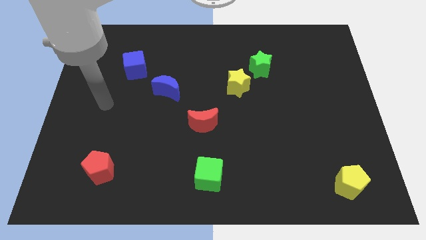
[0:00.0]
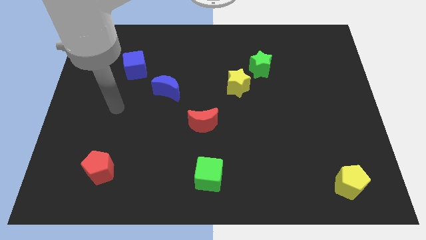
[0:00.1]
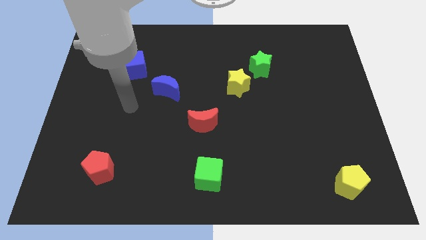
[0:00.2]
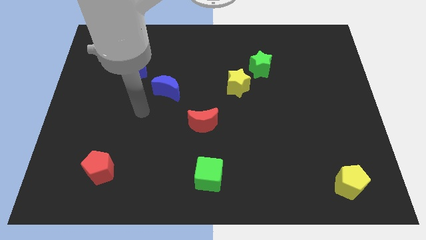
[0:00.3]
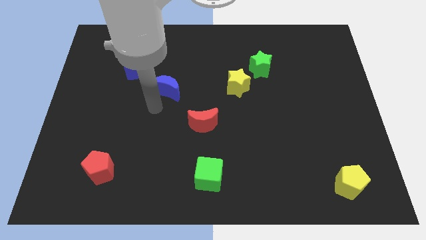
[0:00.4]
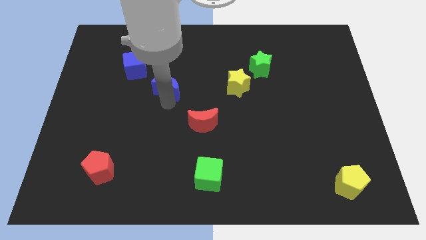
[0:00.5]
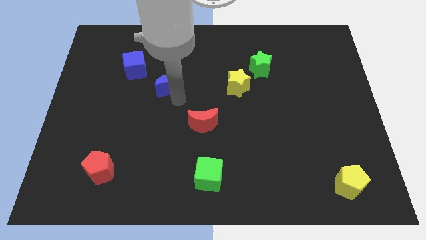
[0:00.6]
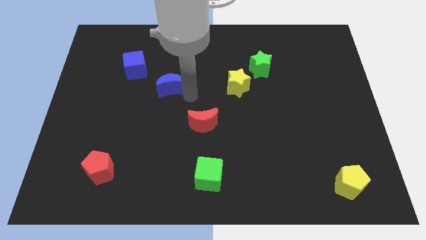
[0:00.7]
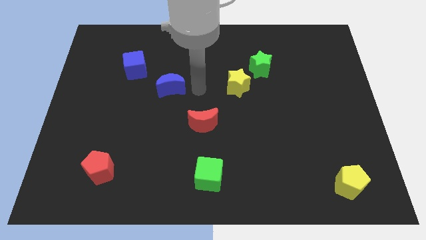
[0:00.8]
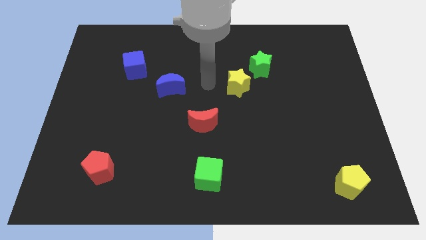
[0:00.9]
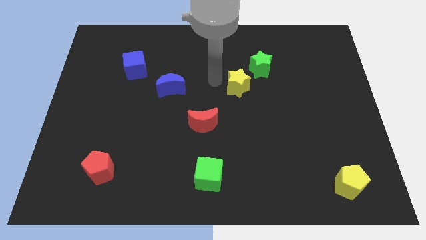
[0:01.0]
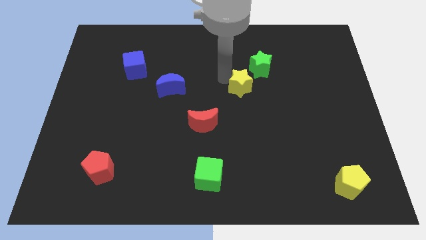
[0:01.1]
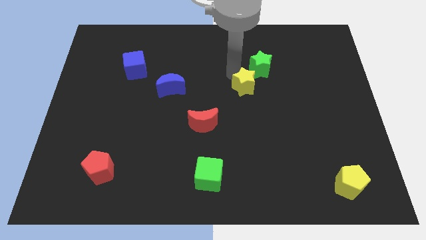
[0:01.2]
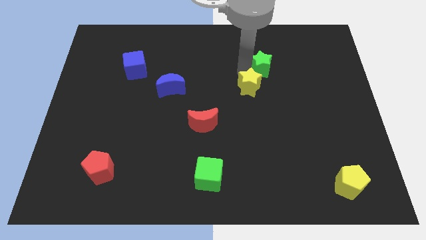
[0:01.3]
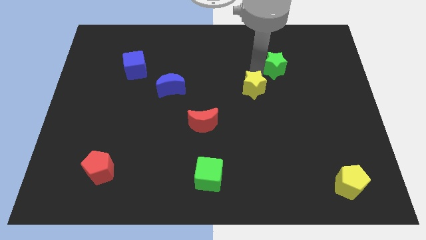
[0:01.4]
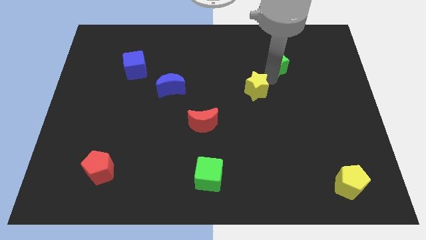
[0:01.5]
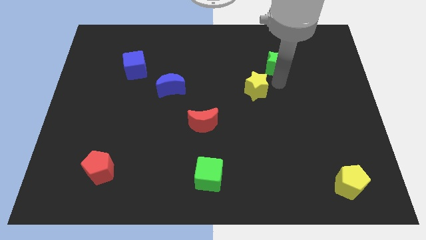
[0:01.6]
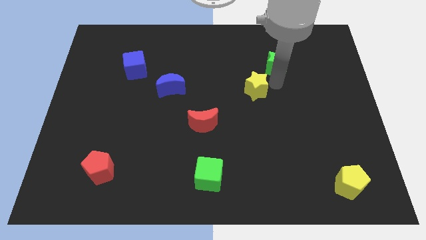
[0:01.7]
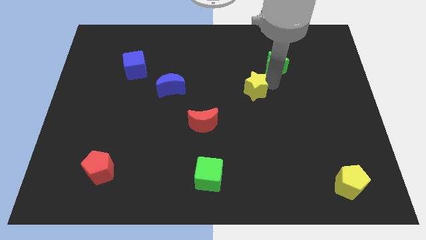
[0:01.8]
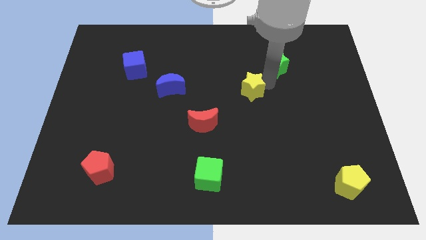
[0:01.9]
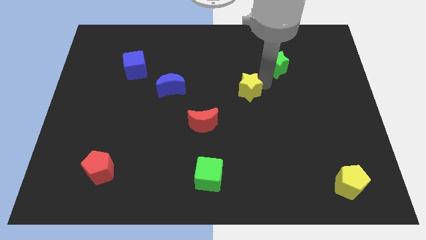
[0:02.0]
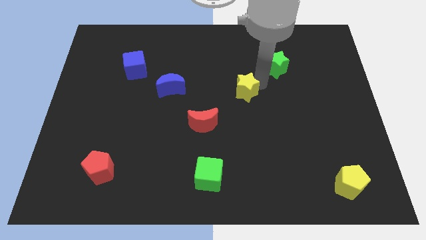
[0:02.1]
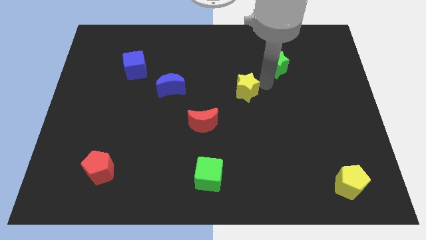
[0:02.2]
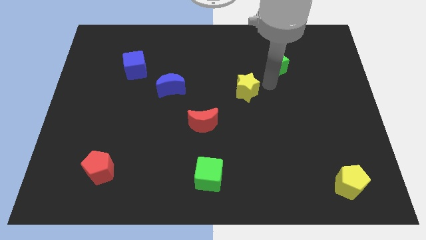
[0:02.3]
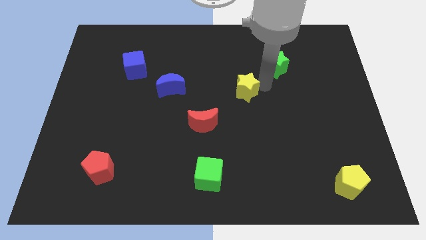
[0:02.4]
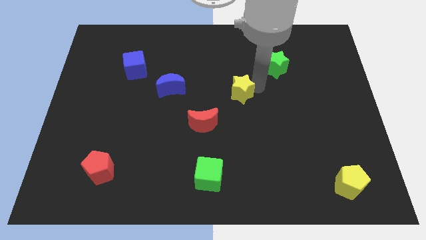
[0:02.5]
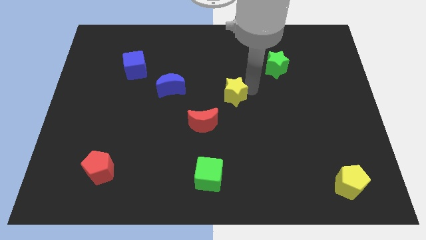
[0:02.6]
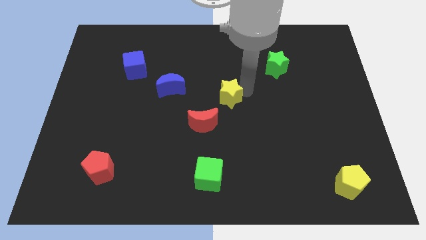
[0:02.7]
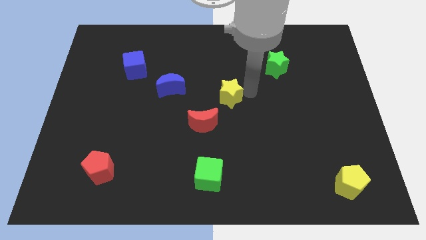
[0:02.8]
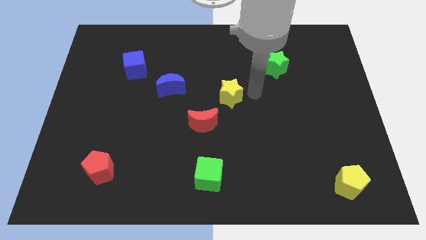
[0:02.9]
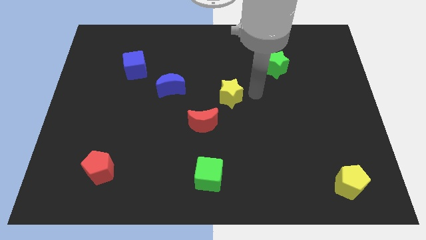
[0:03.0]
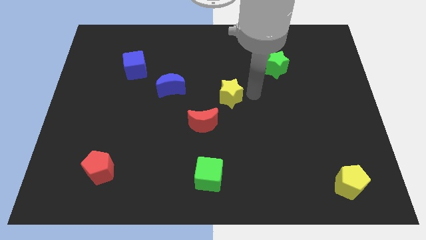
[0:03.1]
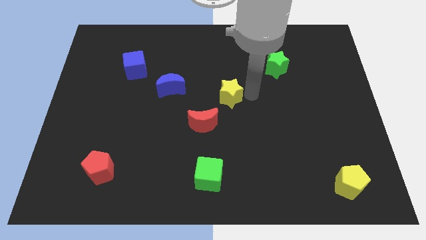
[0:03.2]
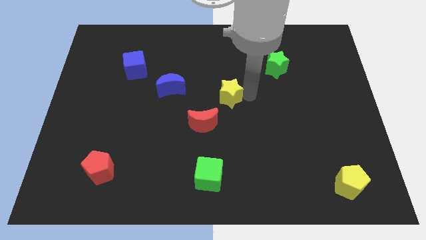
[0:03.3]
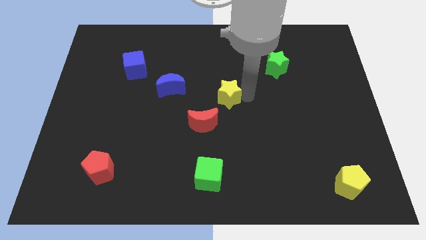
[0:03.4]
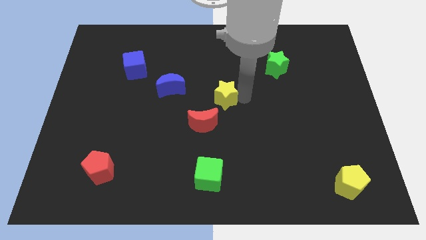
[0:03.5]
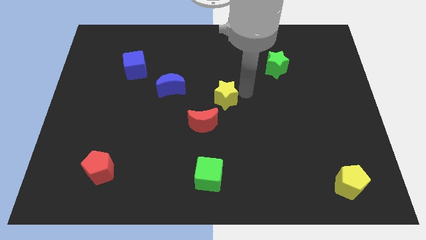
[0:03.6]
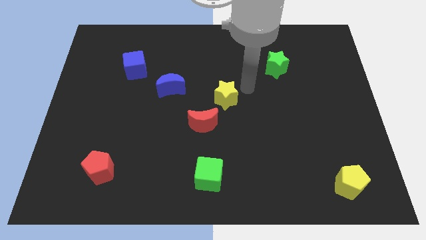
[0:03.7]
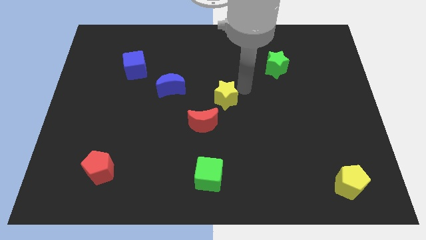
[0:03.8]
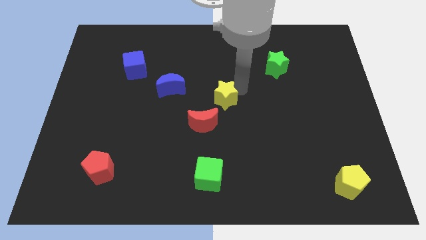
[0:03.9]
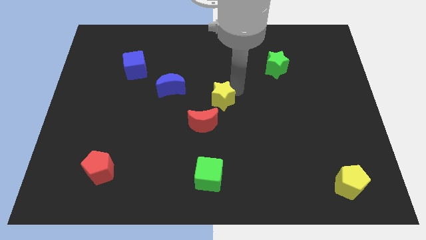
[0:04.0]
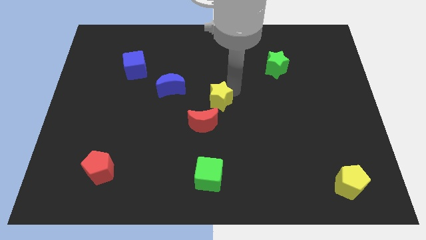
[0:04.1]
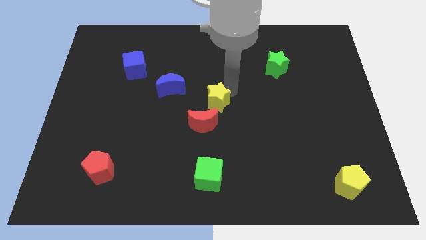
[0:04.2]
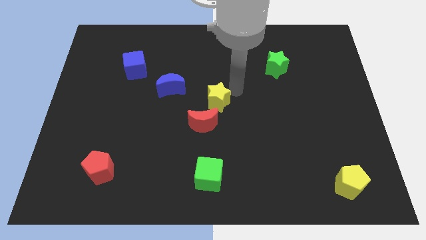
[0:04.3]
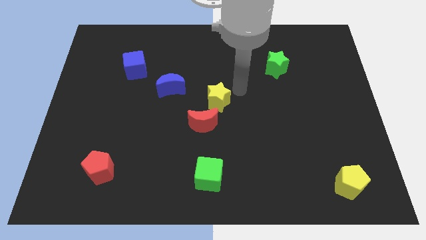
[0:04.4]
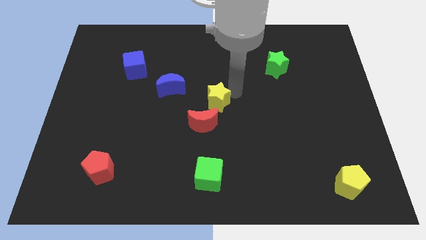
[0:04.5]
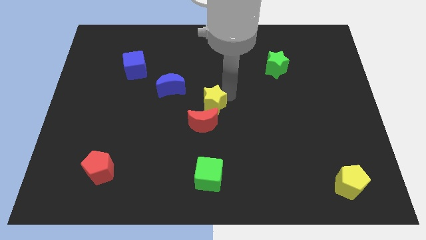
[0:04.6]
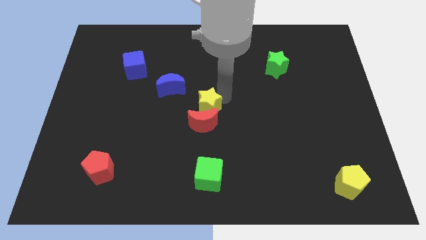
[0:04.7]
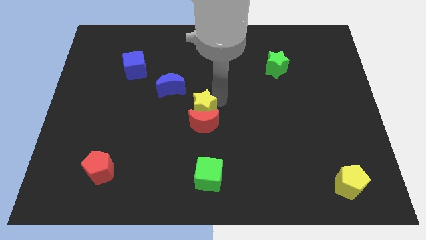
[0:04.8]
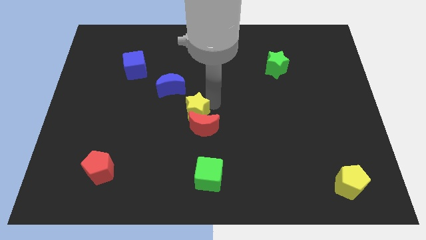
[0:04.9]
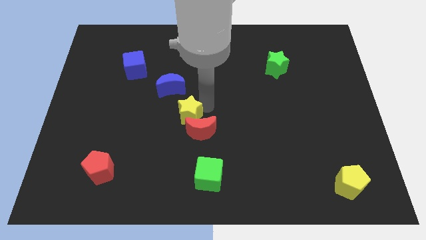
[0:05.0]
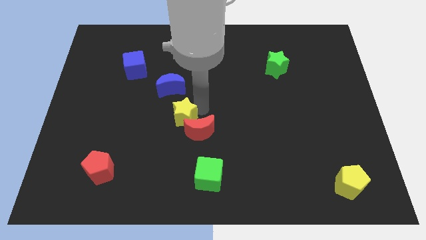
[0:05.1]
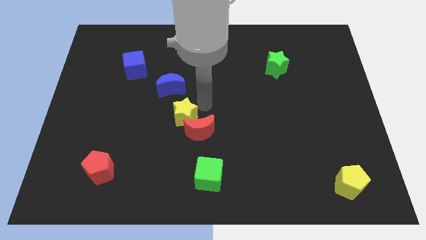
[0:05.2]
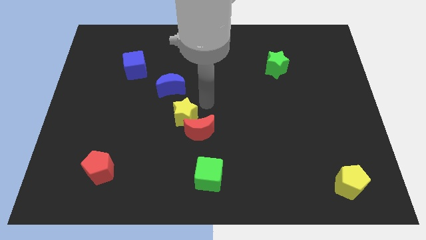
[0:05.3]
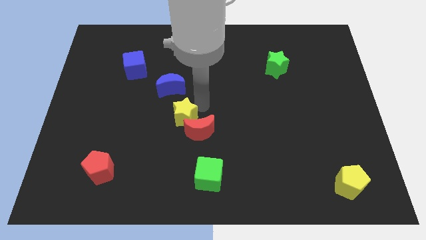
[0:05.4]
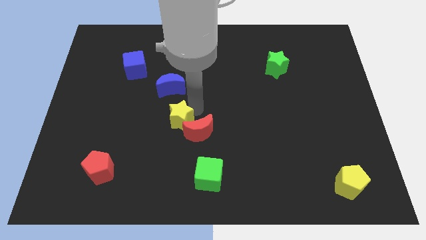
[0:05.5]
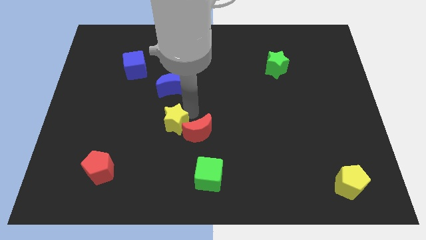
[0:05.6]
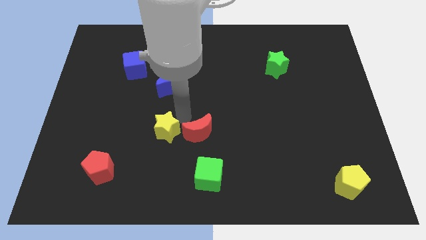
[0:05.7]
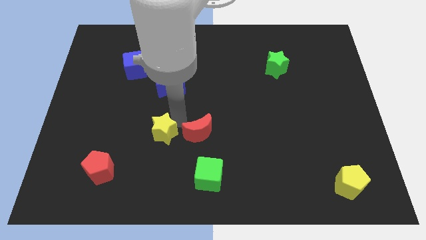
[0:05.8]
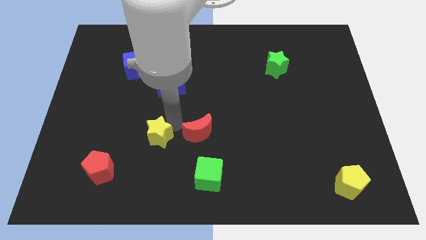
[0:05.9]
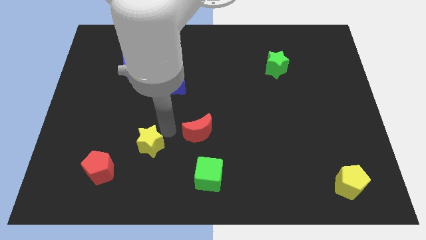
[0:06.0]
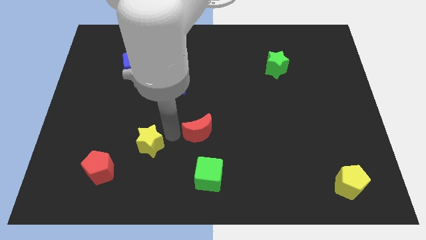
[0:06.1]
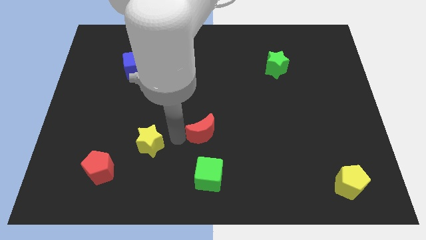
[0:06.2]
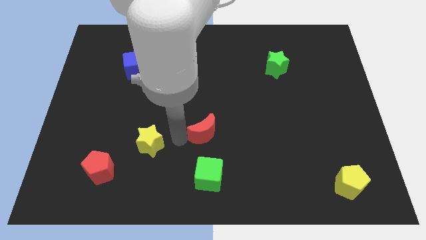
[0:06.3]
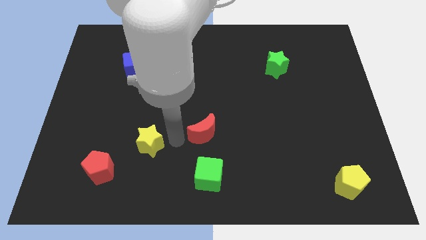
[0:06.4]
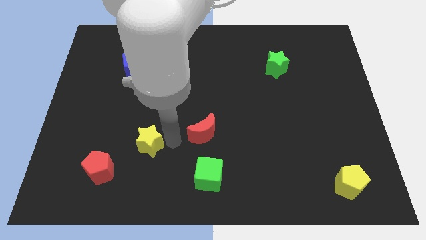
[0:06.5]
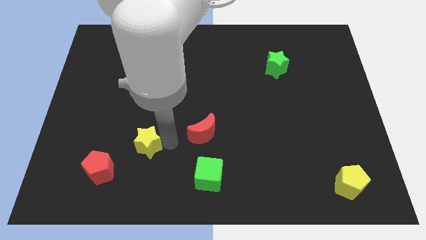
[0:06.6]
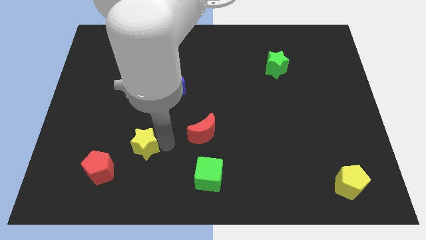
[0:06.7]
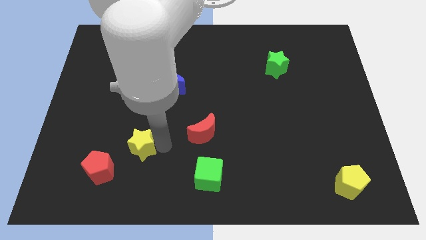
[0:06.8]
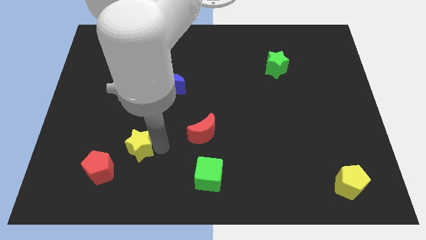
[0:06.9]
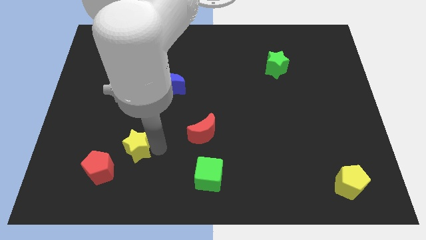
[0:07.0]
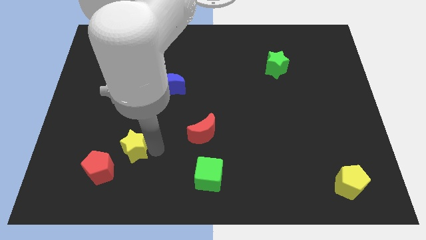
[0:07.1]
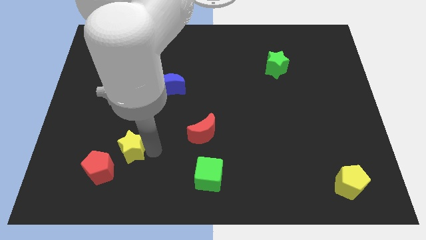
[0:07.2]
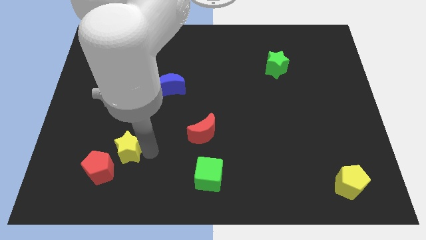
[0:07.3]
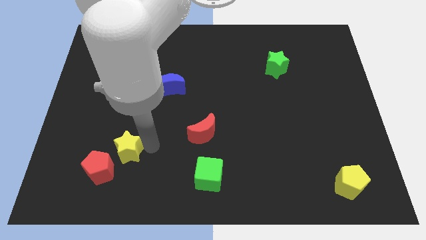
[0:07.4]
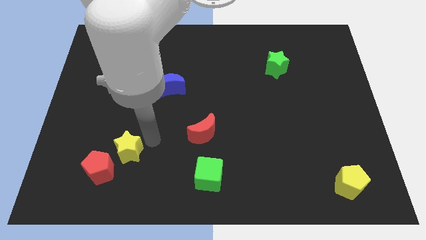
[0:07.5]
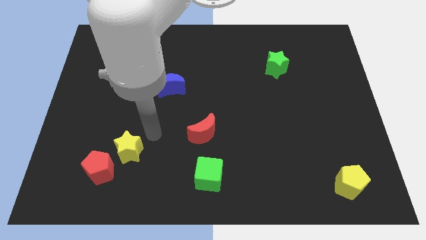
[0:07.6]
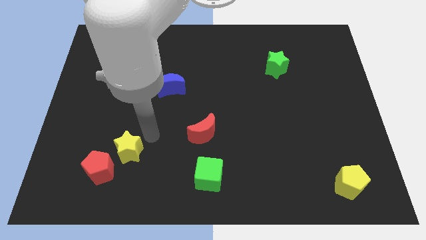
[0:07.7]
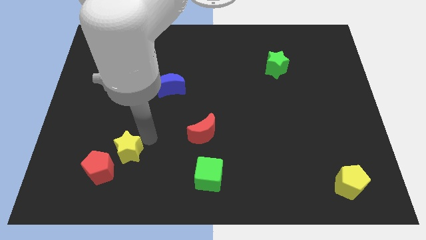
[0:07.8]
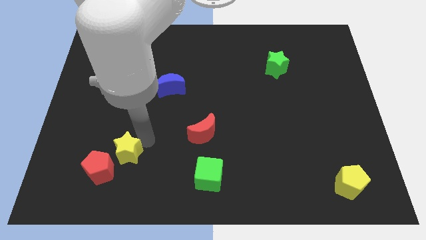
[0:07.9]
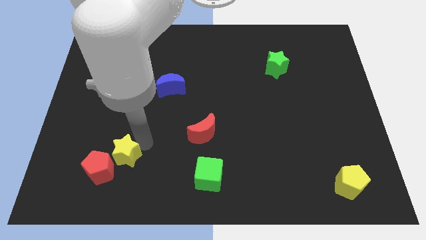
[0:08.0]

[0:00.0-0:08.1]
slide the yellow star close to the red pentagon
